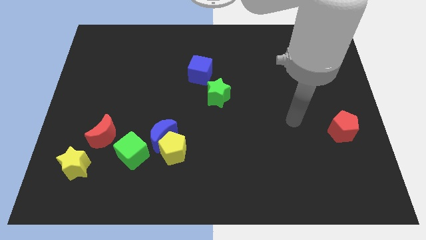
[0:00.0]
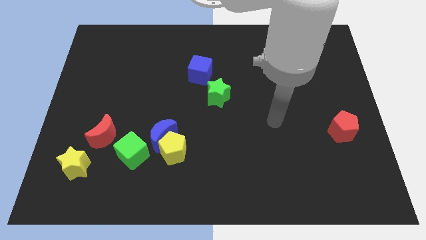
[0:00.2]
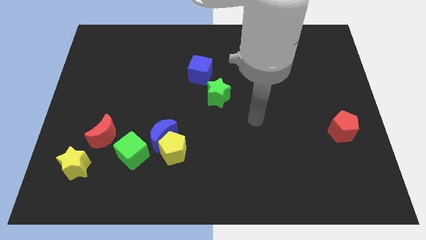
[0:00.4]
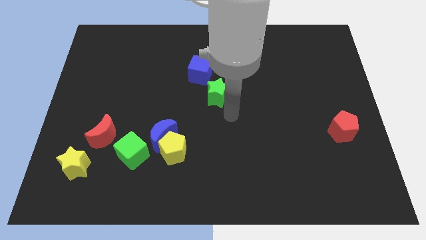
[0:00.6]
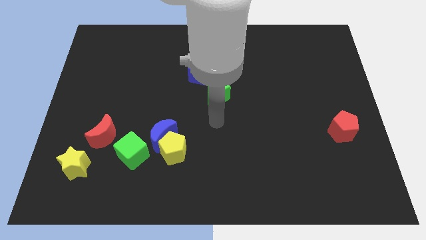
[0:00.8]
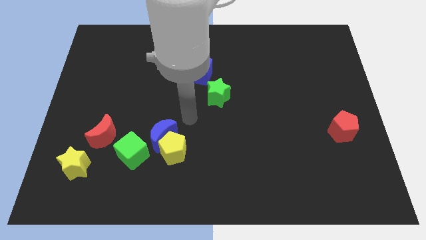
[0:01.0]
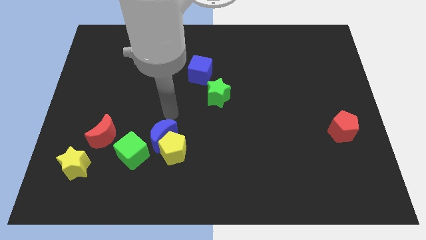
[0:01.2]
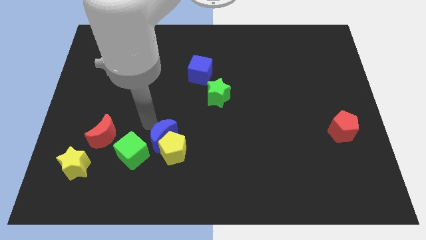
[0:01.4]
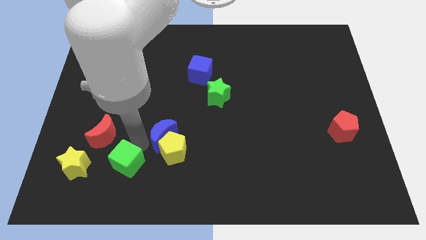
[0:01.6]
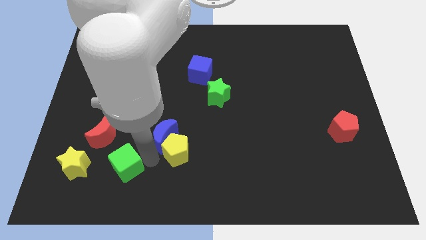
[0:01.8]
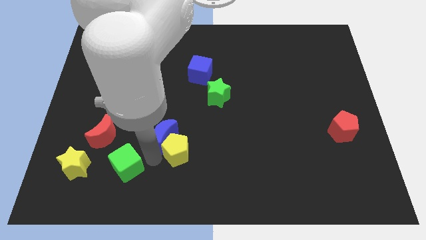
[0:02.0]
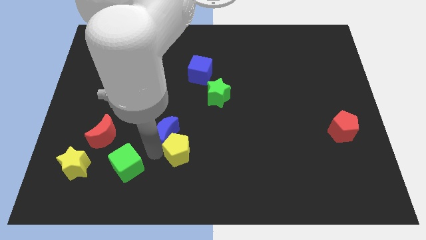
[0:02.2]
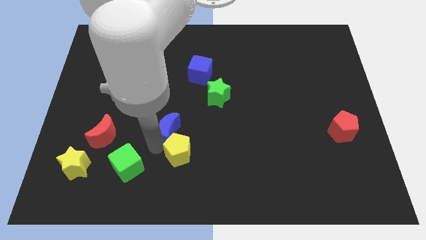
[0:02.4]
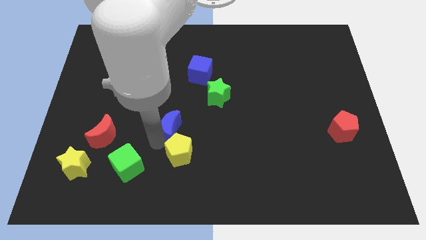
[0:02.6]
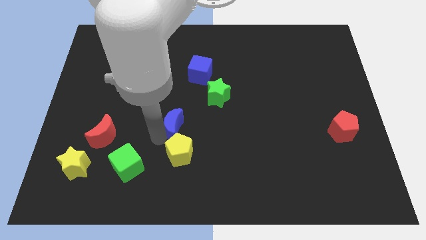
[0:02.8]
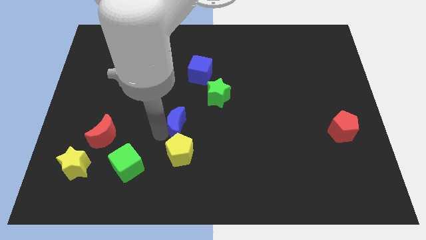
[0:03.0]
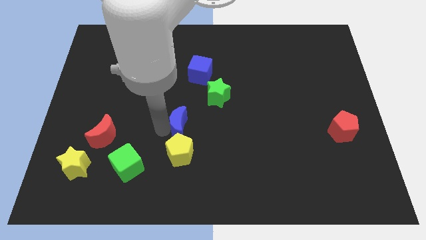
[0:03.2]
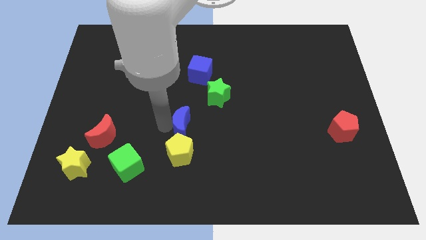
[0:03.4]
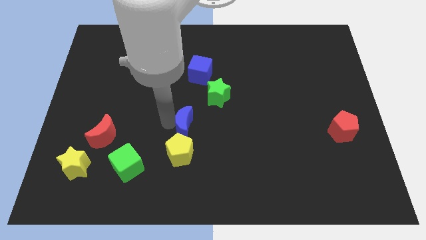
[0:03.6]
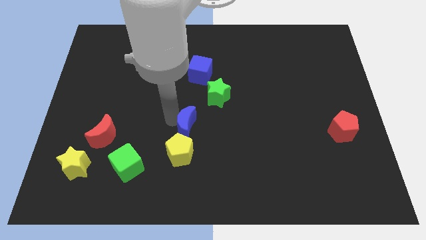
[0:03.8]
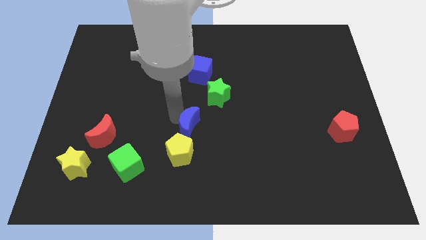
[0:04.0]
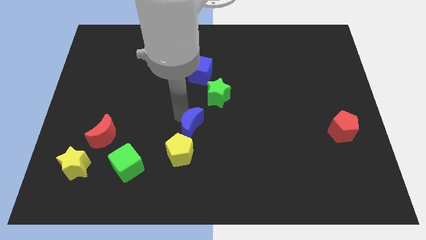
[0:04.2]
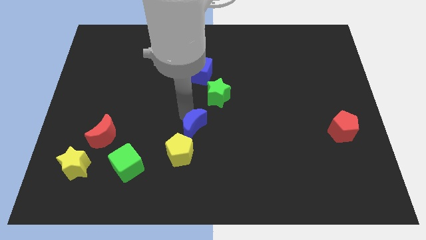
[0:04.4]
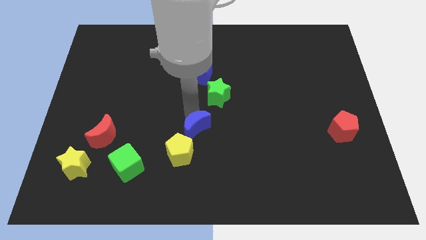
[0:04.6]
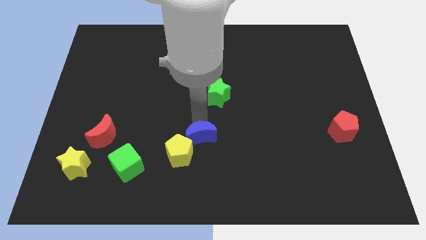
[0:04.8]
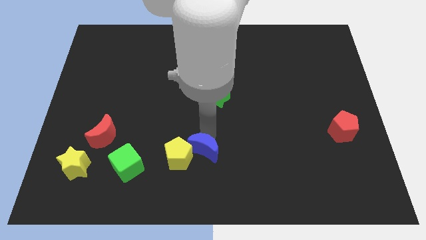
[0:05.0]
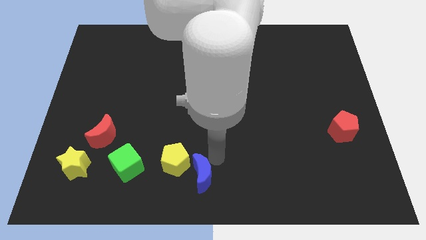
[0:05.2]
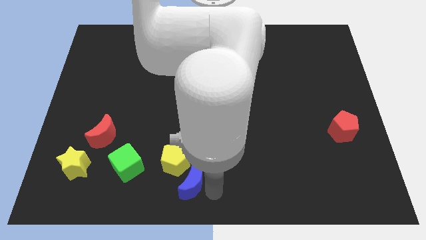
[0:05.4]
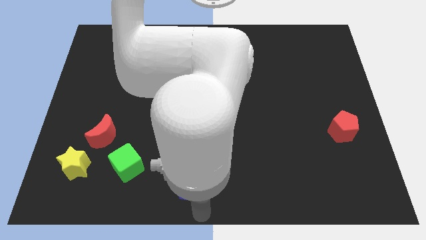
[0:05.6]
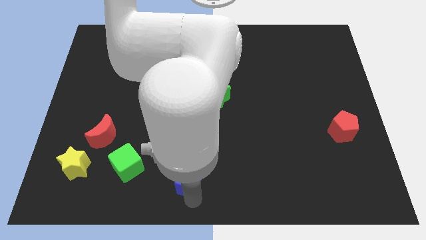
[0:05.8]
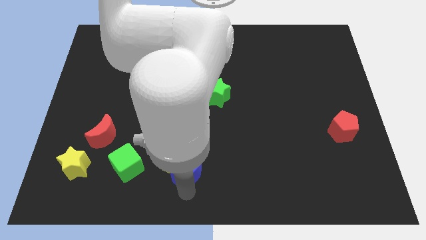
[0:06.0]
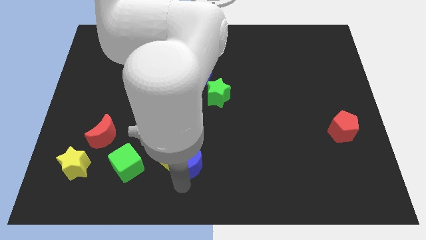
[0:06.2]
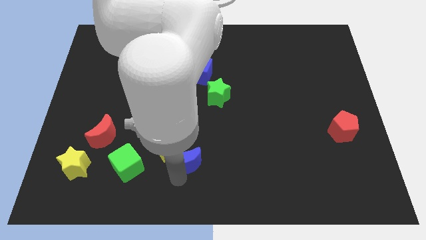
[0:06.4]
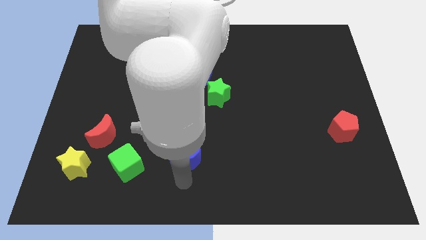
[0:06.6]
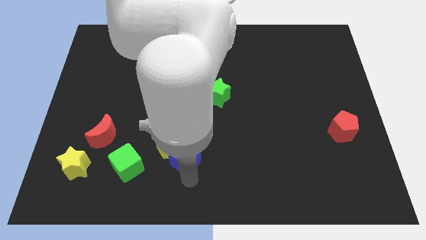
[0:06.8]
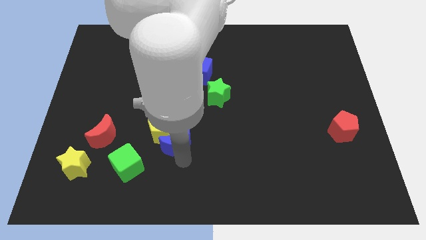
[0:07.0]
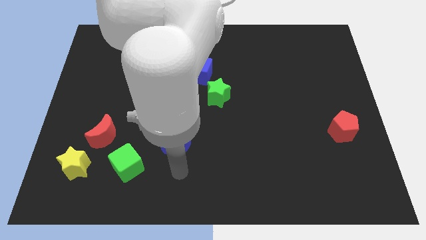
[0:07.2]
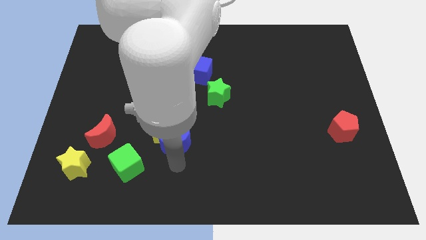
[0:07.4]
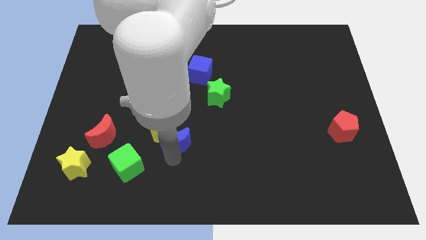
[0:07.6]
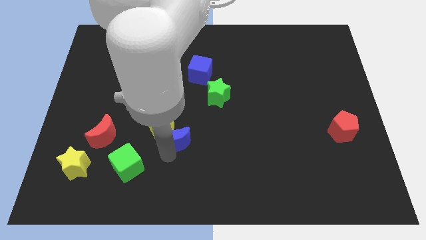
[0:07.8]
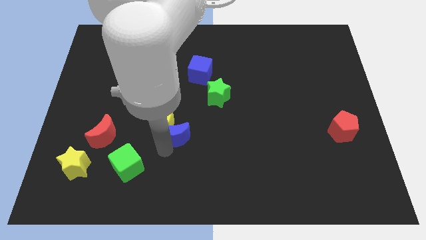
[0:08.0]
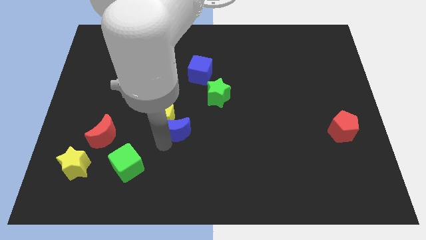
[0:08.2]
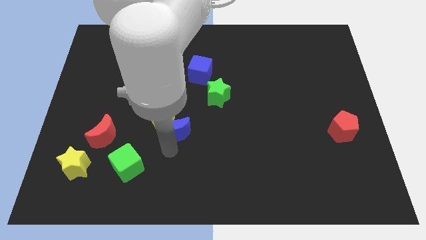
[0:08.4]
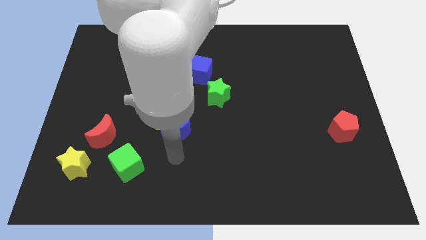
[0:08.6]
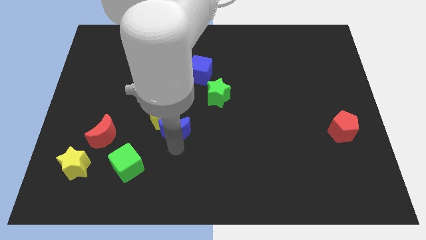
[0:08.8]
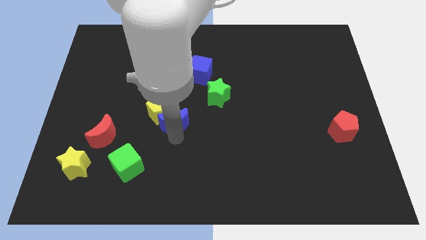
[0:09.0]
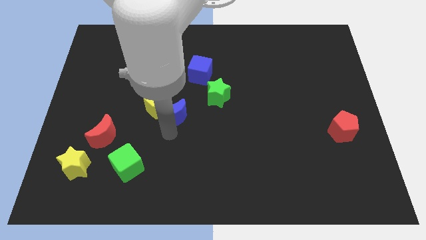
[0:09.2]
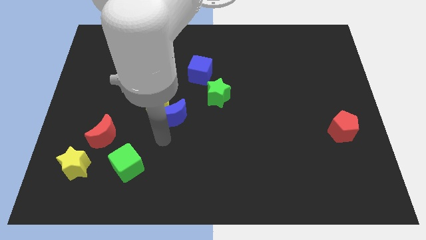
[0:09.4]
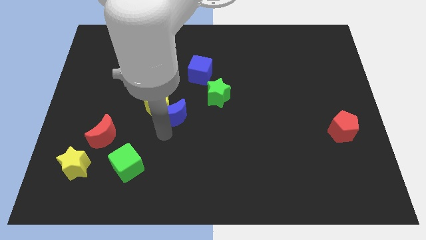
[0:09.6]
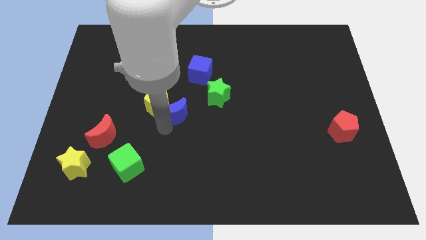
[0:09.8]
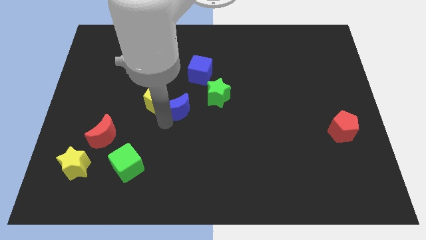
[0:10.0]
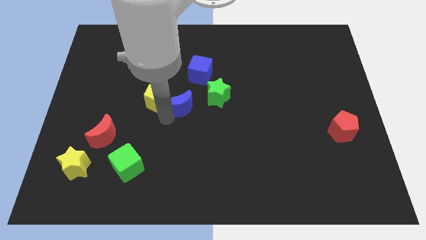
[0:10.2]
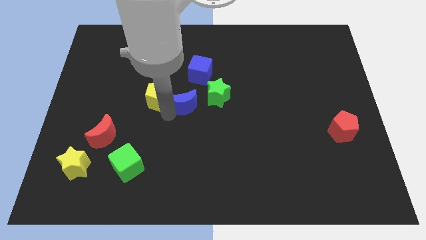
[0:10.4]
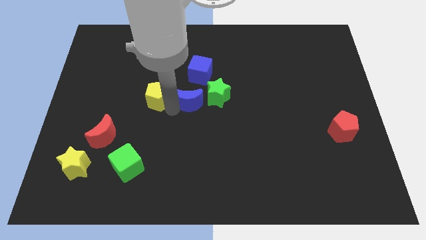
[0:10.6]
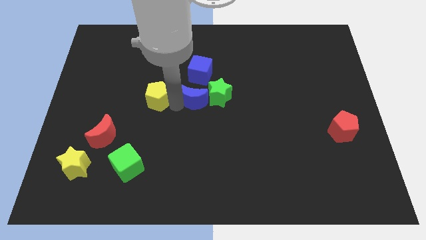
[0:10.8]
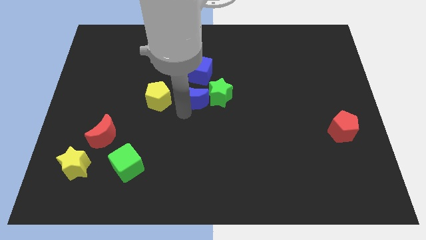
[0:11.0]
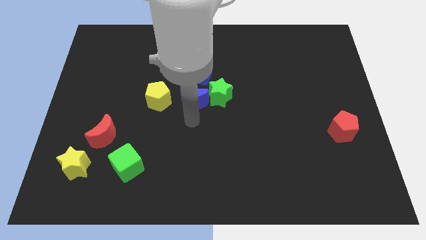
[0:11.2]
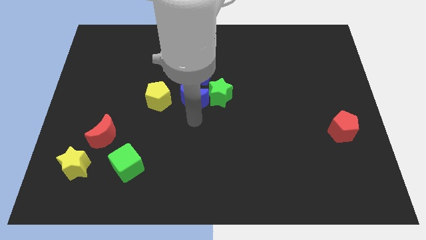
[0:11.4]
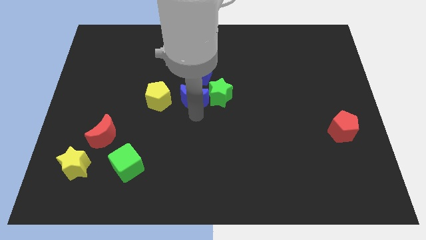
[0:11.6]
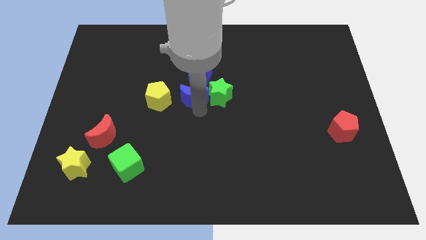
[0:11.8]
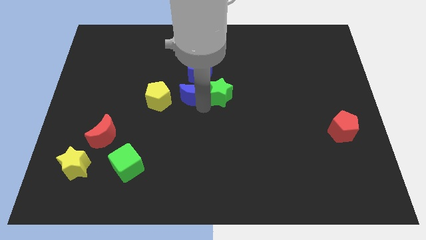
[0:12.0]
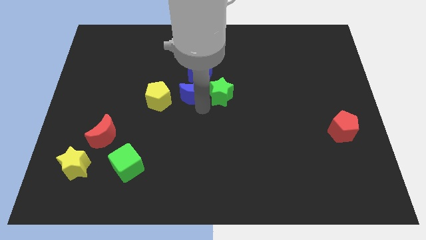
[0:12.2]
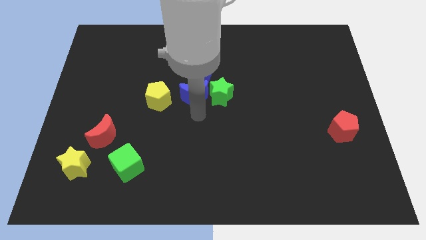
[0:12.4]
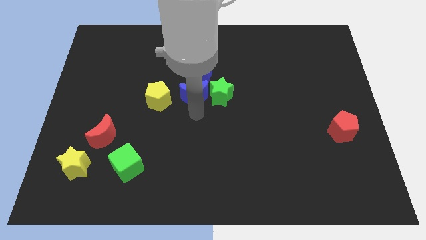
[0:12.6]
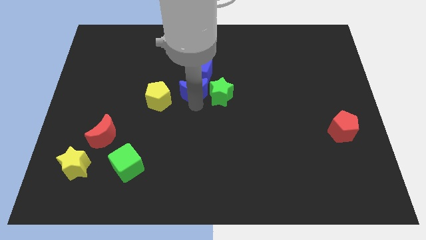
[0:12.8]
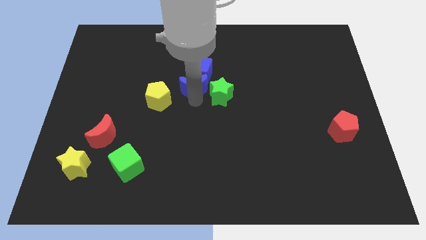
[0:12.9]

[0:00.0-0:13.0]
move the blue moon towards the blue cube

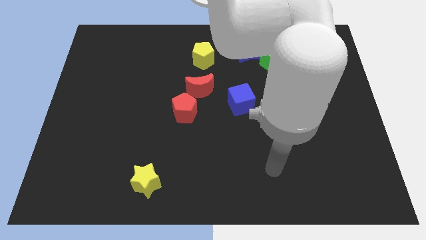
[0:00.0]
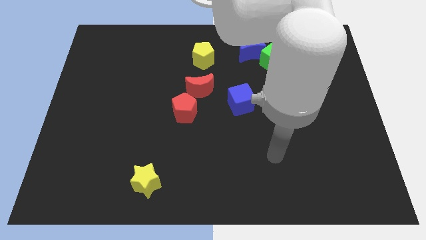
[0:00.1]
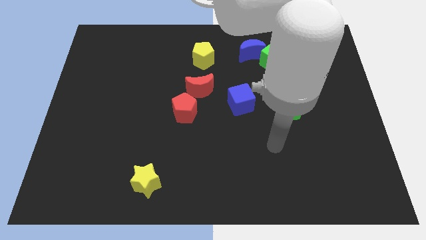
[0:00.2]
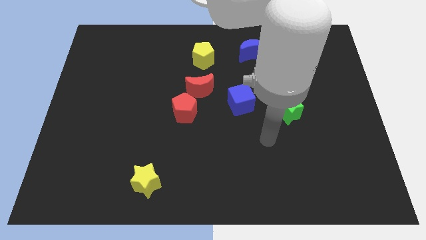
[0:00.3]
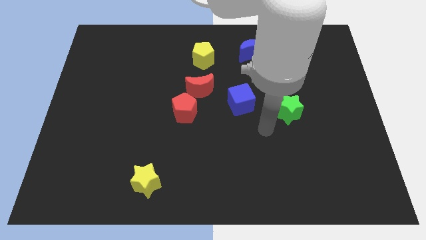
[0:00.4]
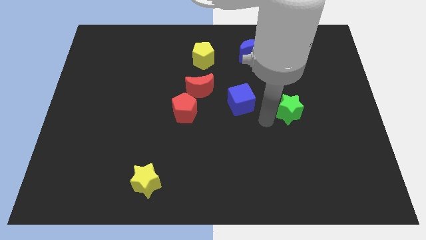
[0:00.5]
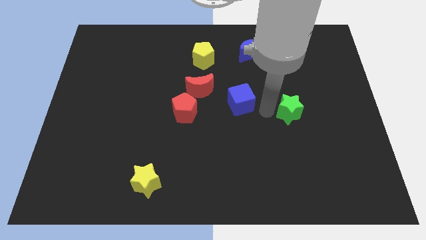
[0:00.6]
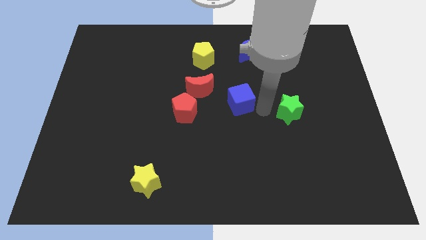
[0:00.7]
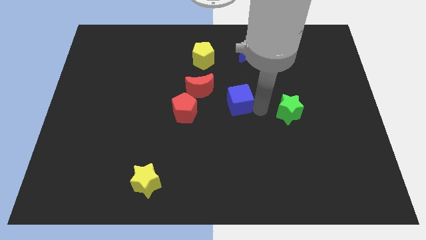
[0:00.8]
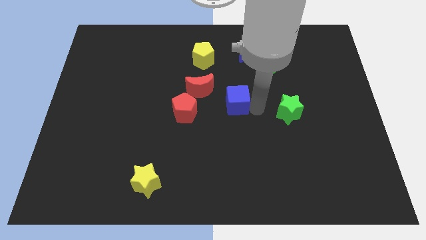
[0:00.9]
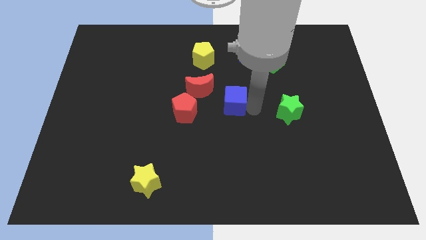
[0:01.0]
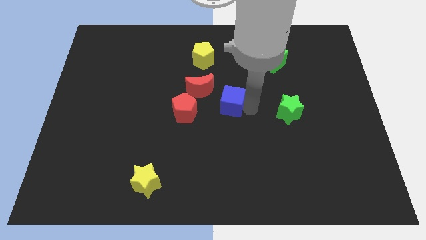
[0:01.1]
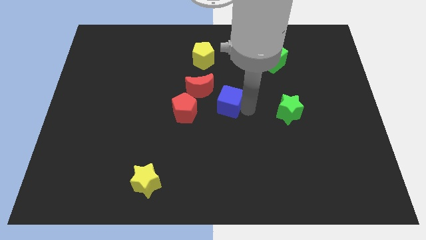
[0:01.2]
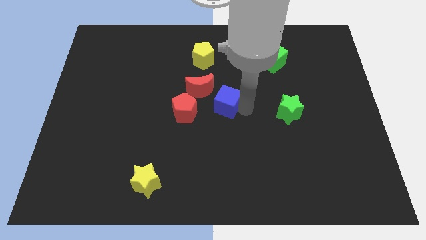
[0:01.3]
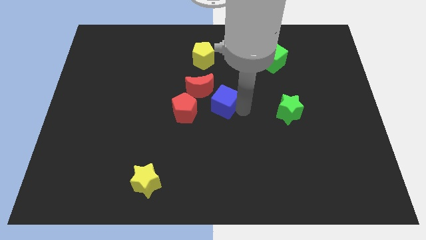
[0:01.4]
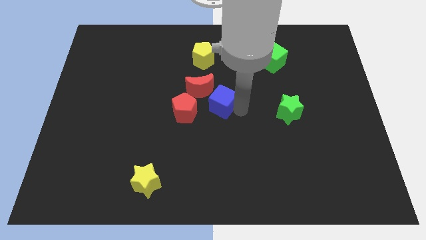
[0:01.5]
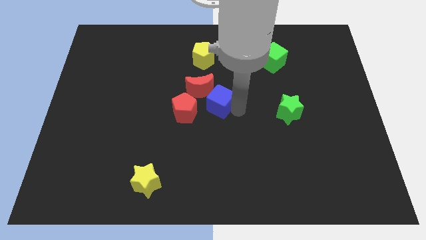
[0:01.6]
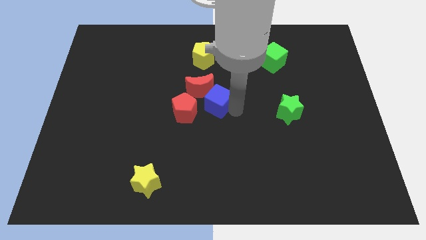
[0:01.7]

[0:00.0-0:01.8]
push the blue cube towards the red moon
